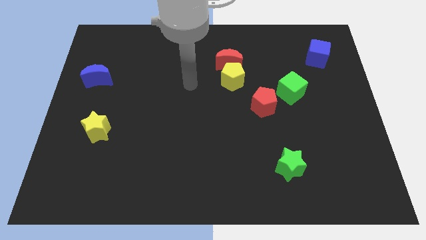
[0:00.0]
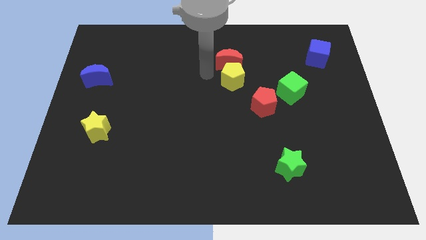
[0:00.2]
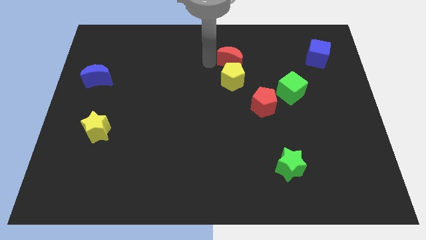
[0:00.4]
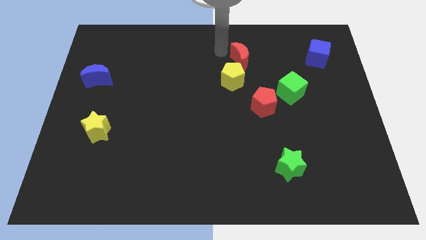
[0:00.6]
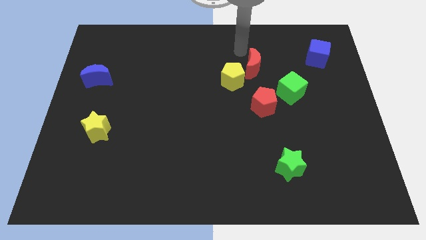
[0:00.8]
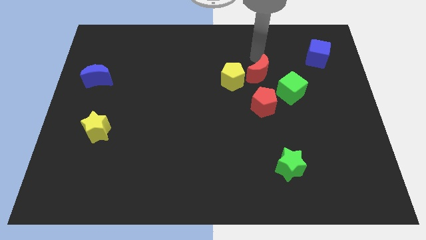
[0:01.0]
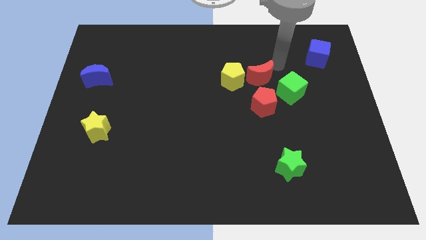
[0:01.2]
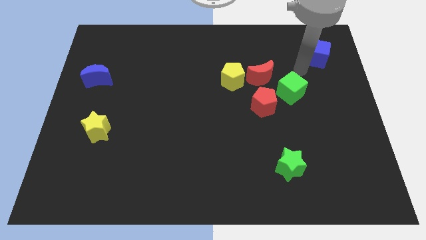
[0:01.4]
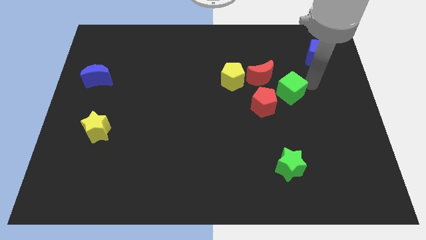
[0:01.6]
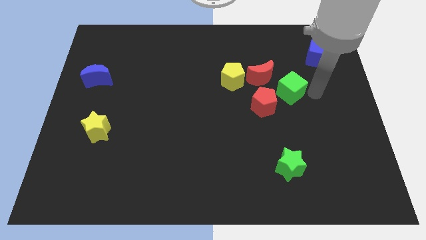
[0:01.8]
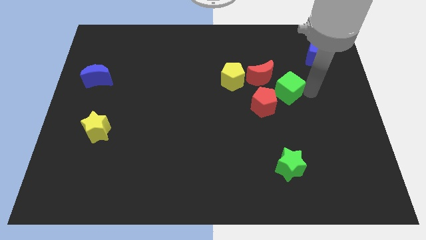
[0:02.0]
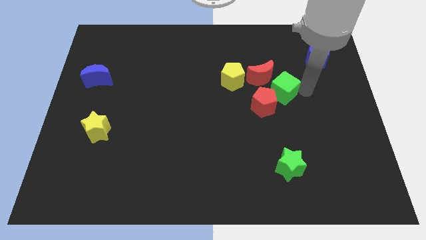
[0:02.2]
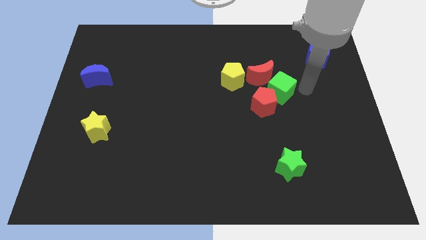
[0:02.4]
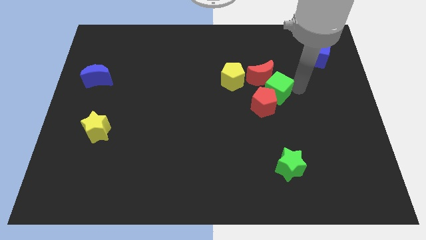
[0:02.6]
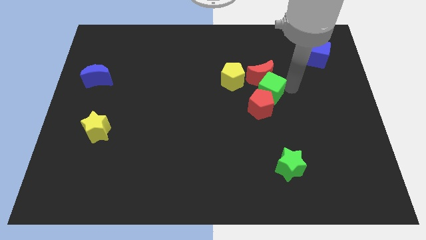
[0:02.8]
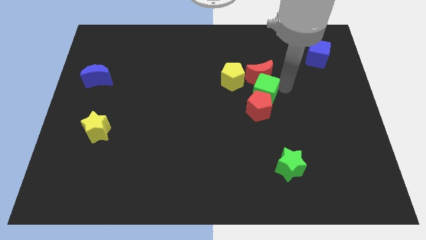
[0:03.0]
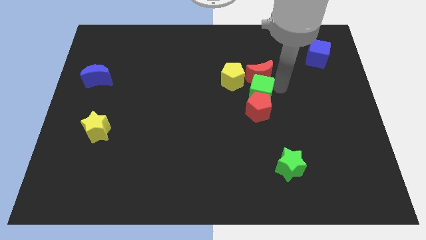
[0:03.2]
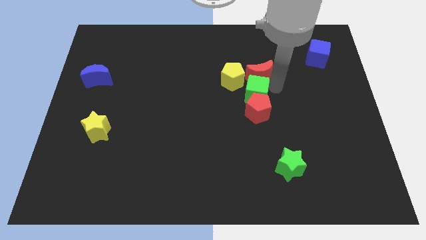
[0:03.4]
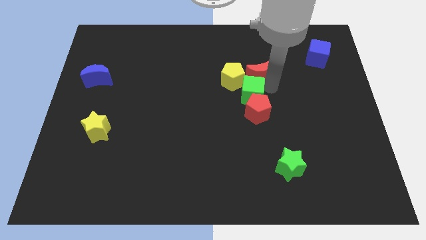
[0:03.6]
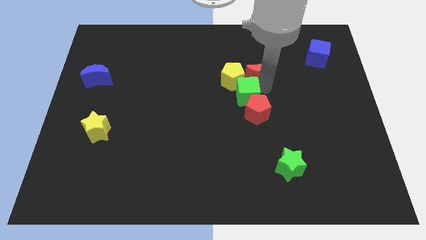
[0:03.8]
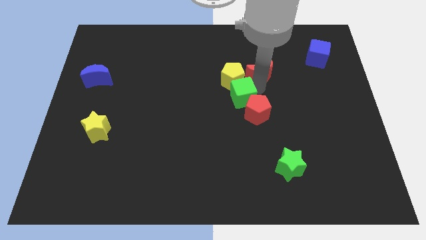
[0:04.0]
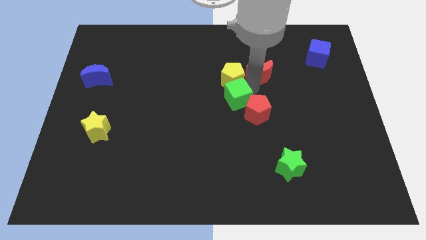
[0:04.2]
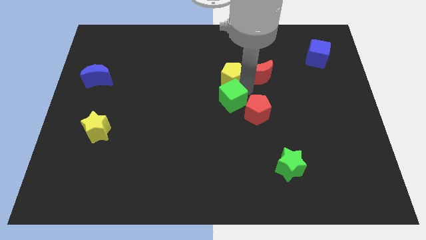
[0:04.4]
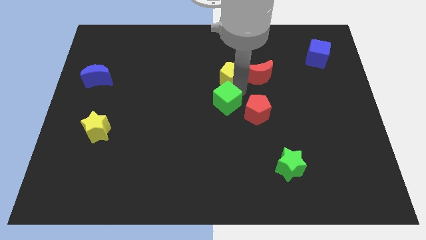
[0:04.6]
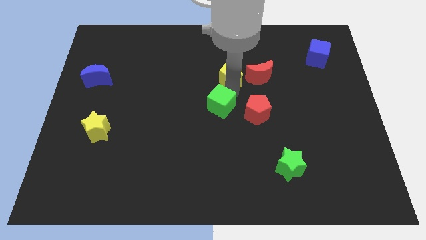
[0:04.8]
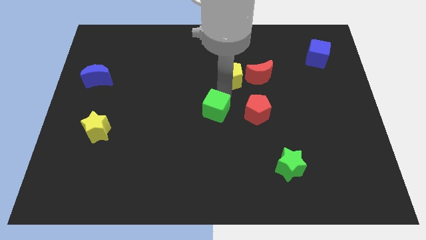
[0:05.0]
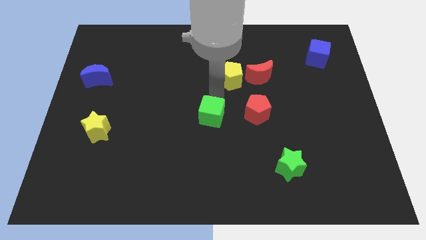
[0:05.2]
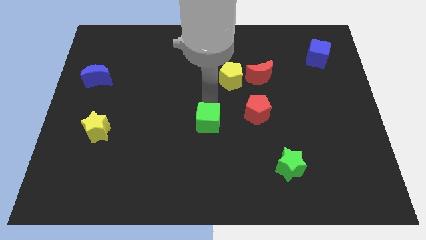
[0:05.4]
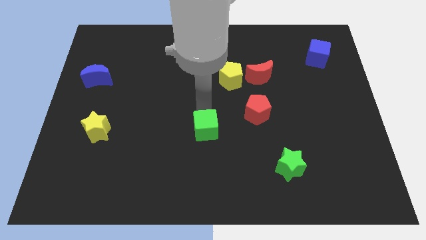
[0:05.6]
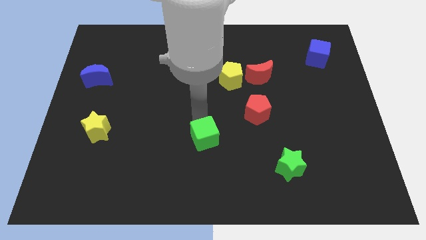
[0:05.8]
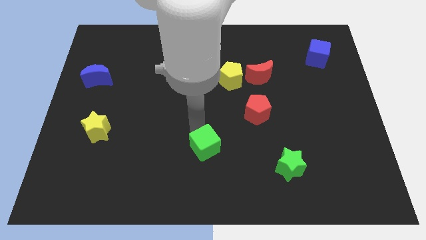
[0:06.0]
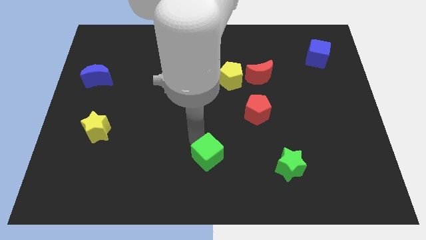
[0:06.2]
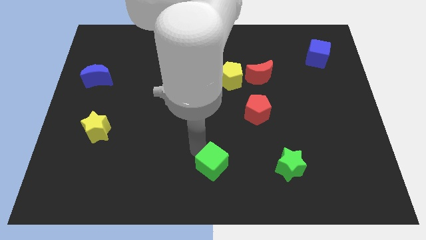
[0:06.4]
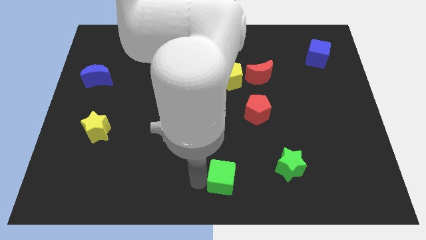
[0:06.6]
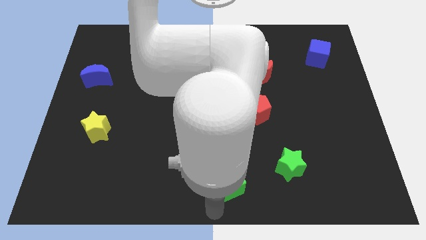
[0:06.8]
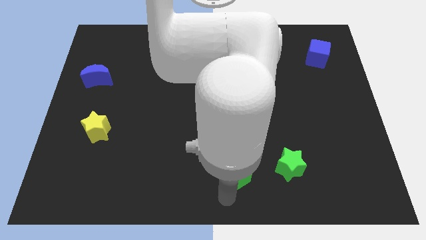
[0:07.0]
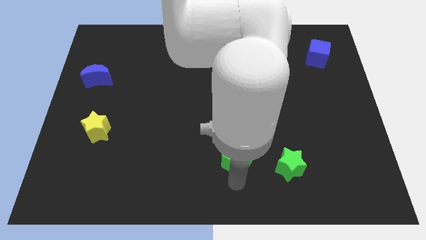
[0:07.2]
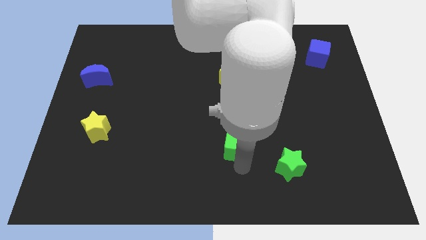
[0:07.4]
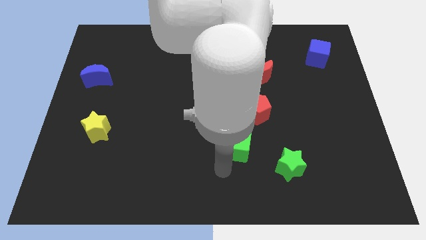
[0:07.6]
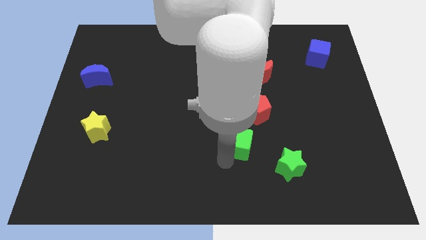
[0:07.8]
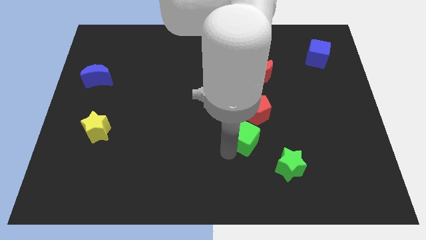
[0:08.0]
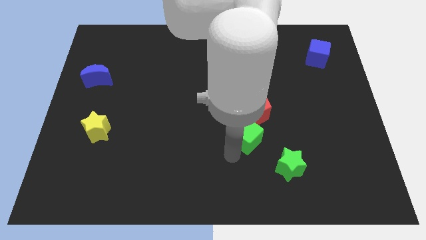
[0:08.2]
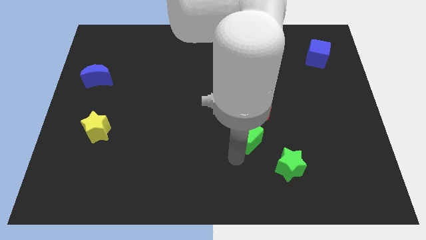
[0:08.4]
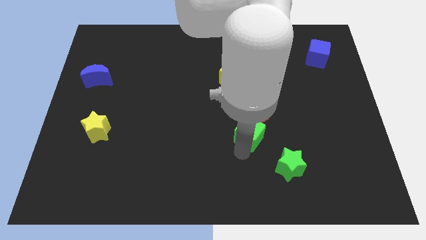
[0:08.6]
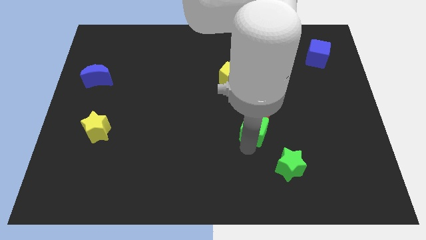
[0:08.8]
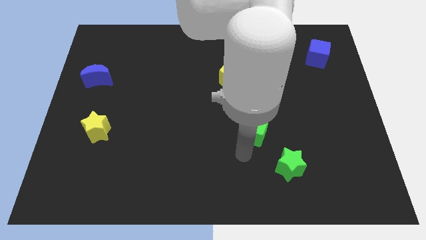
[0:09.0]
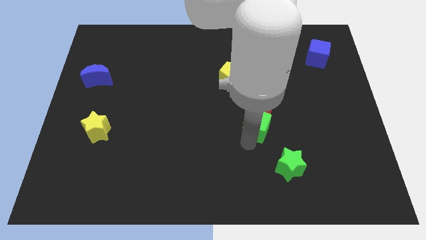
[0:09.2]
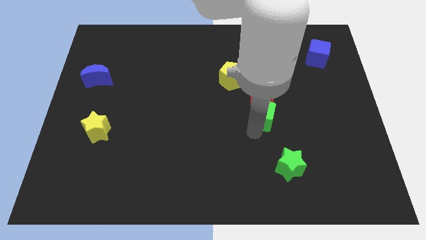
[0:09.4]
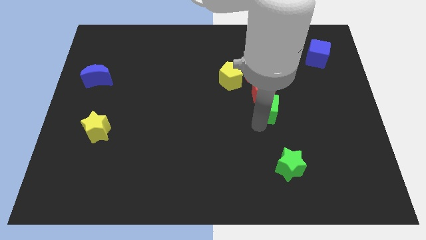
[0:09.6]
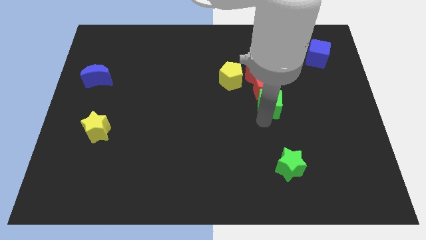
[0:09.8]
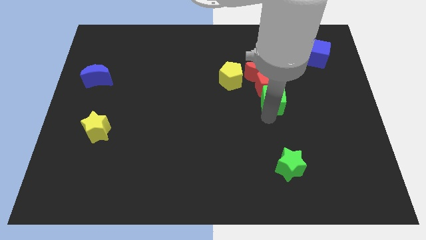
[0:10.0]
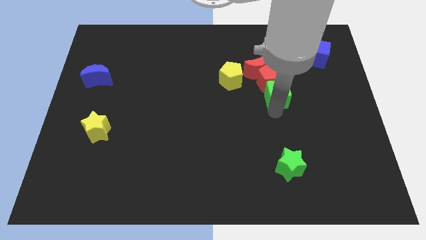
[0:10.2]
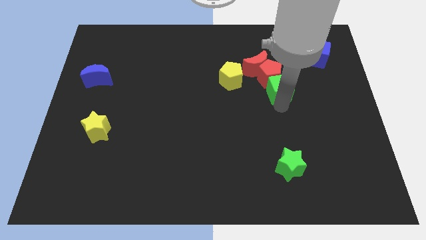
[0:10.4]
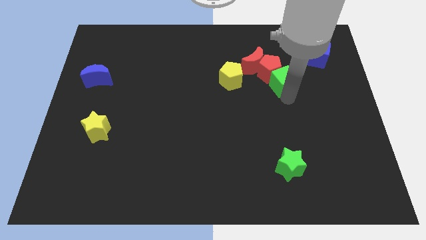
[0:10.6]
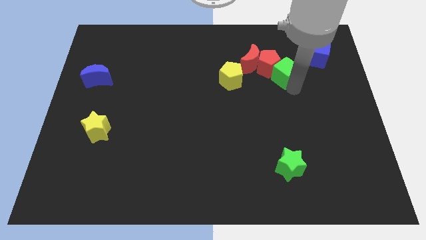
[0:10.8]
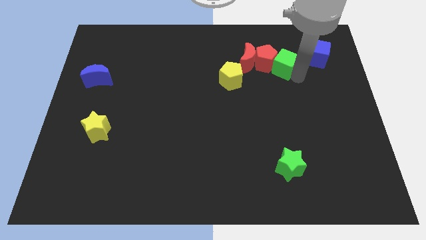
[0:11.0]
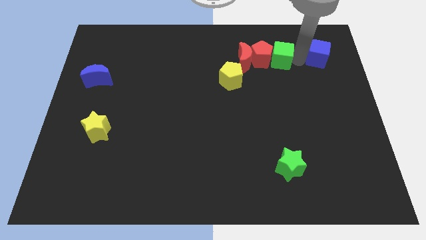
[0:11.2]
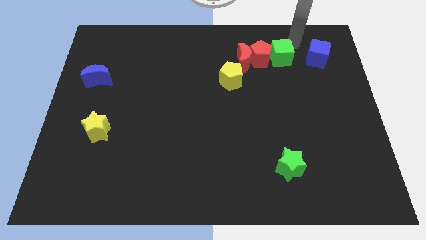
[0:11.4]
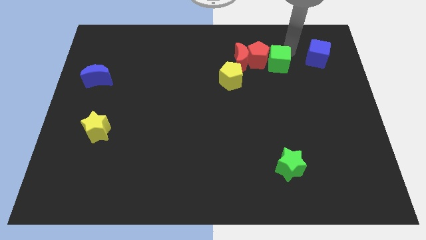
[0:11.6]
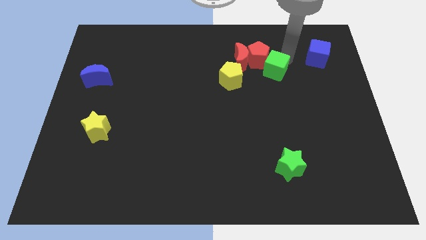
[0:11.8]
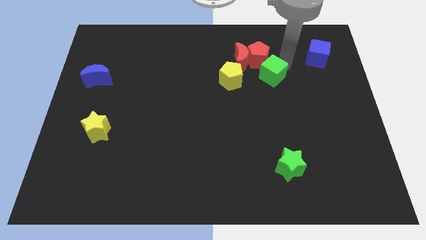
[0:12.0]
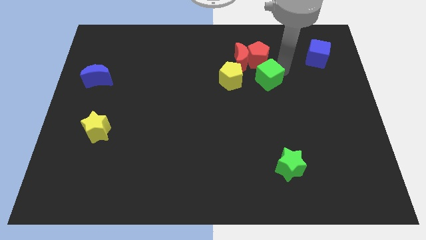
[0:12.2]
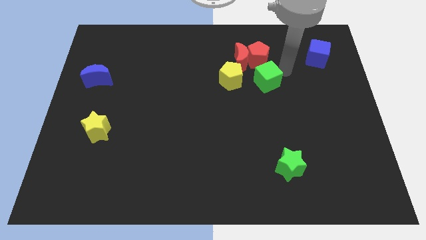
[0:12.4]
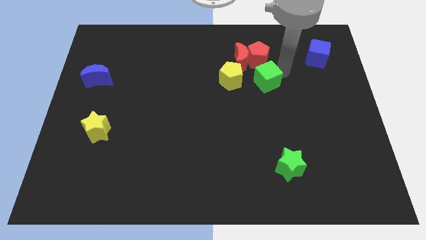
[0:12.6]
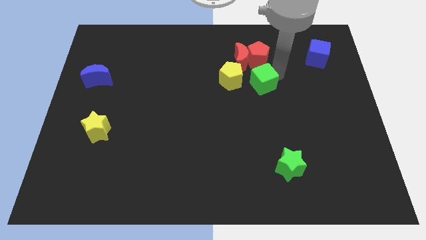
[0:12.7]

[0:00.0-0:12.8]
push the green cube below the red moon

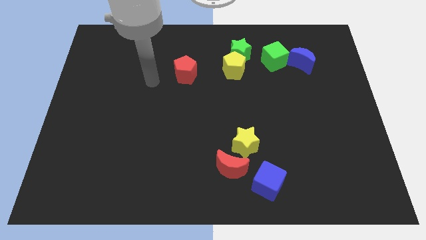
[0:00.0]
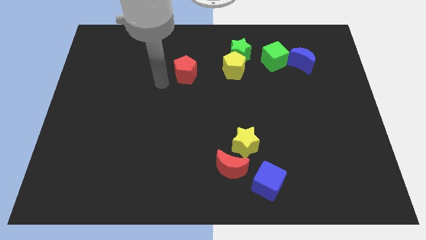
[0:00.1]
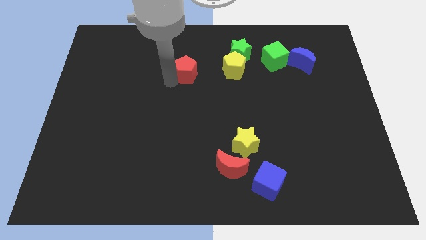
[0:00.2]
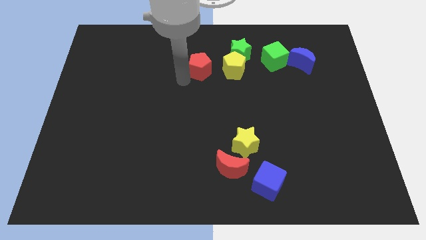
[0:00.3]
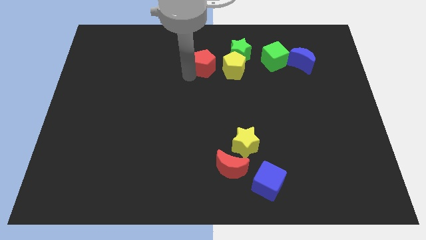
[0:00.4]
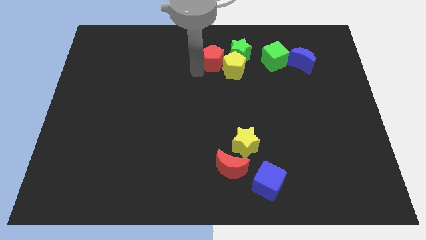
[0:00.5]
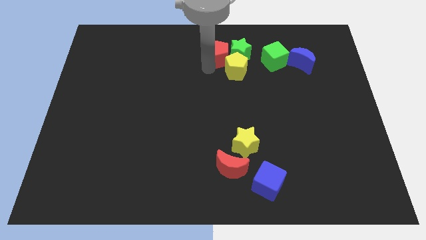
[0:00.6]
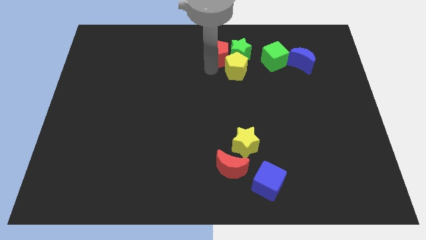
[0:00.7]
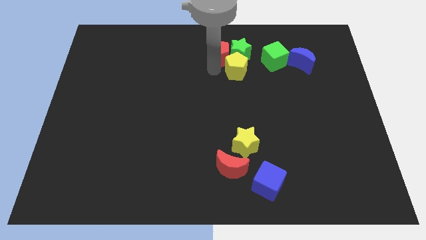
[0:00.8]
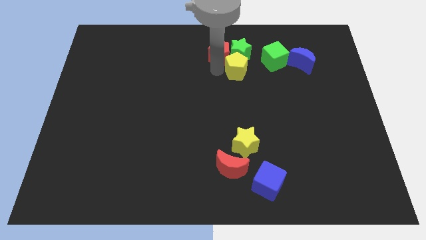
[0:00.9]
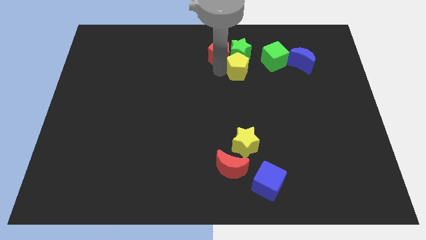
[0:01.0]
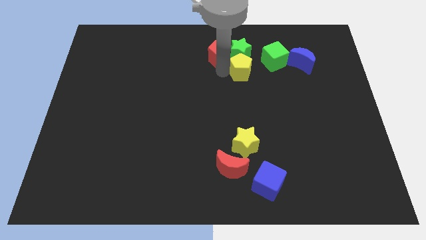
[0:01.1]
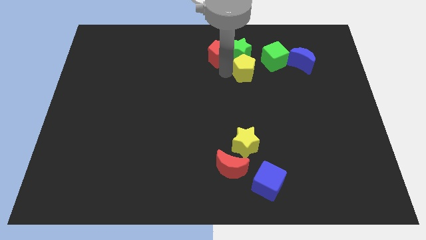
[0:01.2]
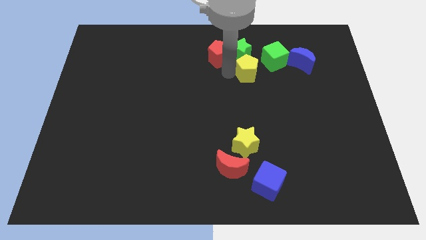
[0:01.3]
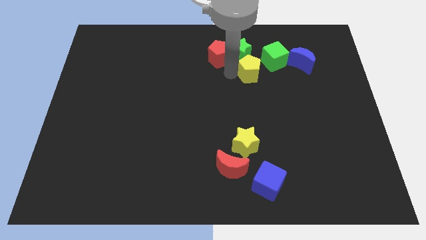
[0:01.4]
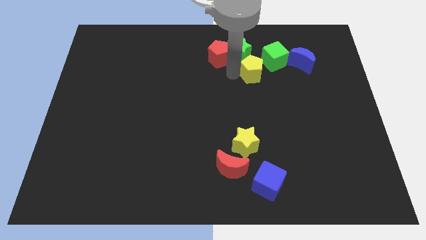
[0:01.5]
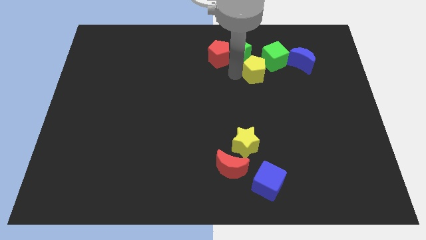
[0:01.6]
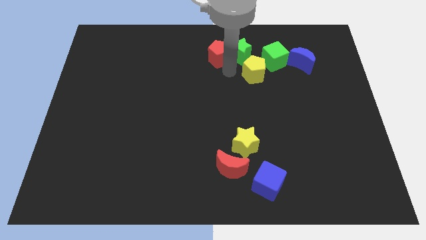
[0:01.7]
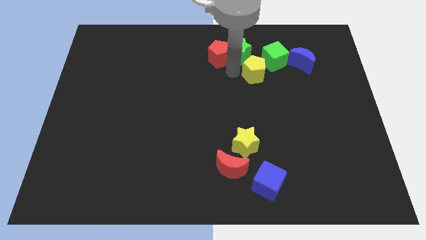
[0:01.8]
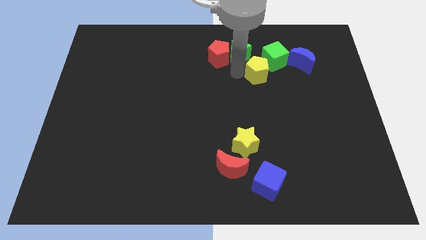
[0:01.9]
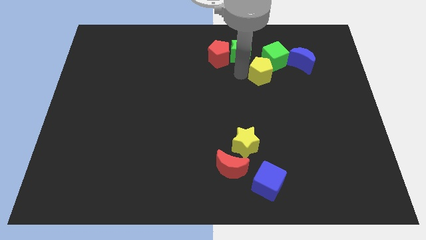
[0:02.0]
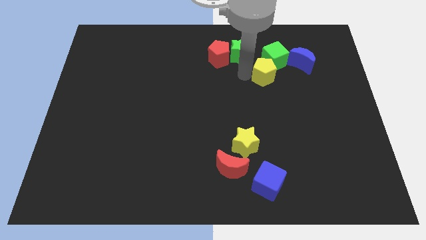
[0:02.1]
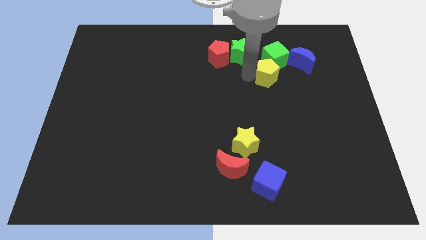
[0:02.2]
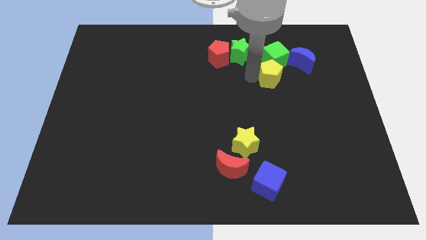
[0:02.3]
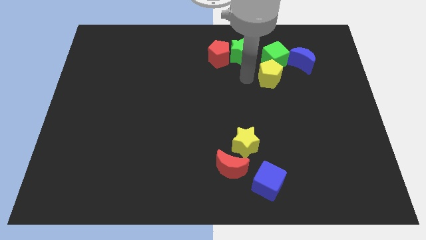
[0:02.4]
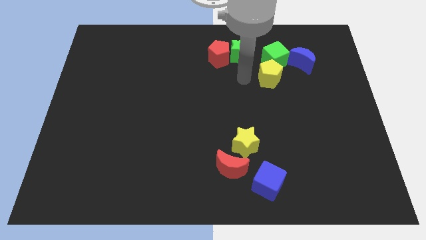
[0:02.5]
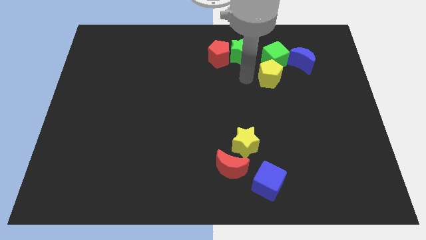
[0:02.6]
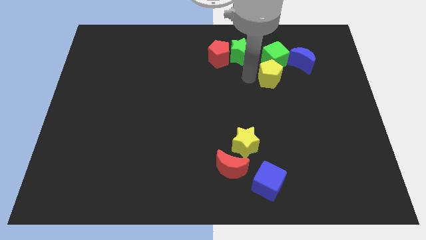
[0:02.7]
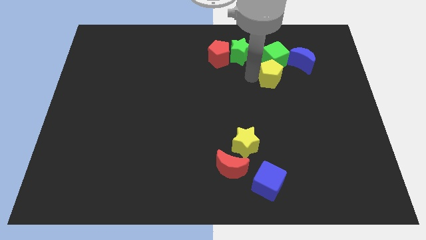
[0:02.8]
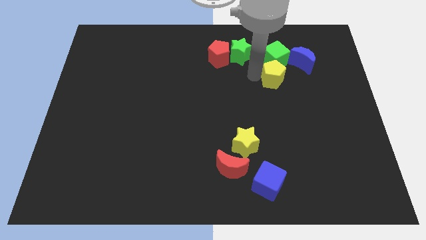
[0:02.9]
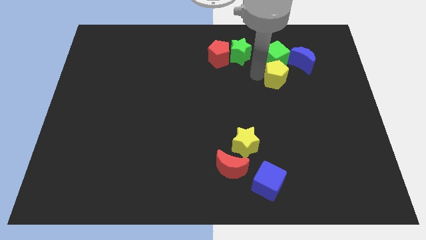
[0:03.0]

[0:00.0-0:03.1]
move the yellow pentagon to the bottom right side of the green cube
